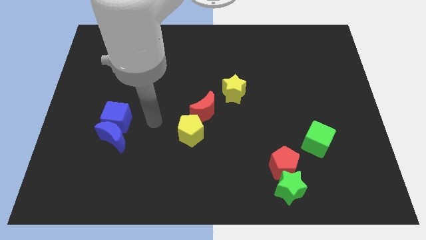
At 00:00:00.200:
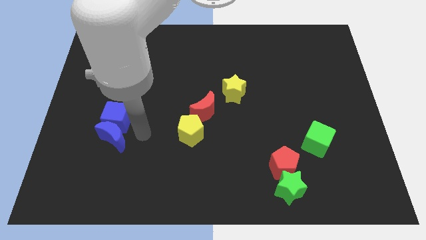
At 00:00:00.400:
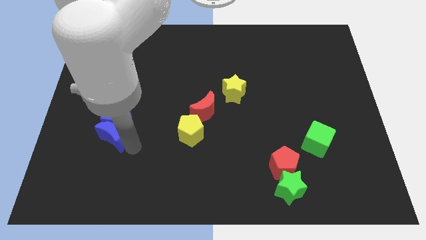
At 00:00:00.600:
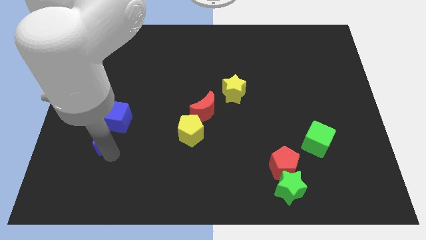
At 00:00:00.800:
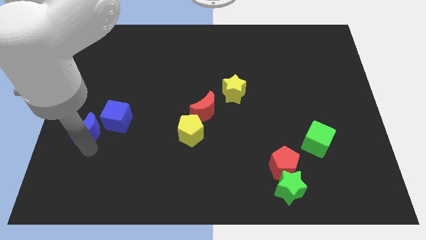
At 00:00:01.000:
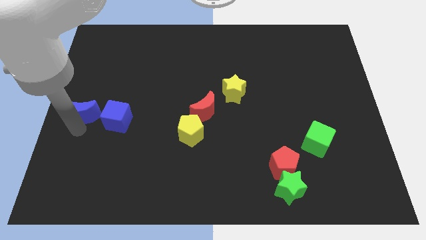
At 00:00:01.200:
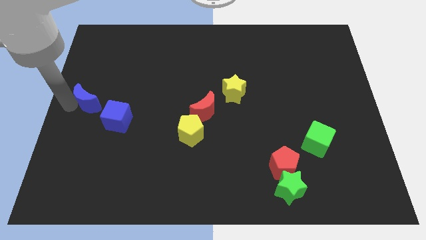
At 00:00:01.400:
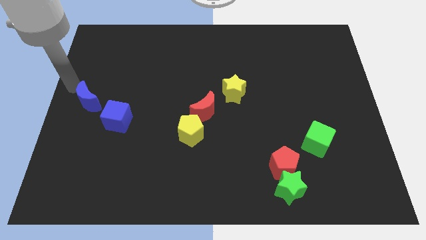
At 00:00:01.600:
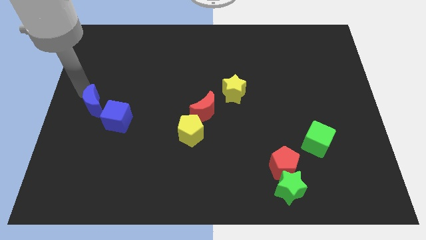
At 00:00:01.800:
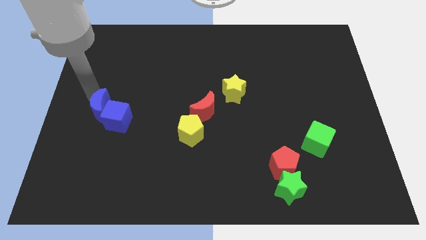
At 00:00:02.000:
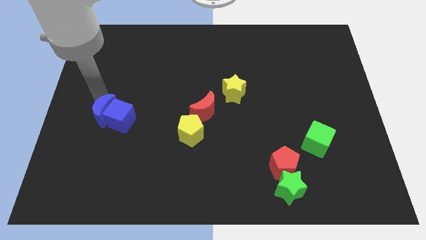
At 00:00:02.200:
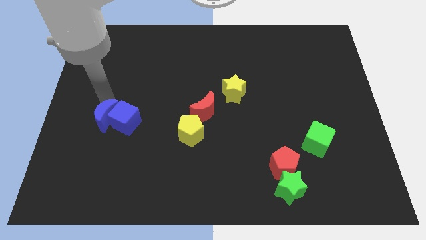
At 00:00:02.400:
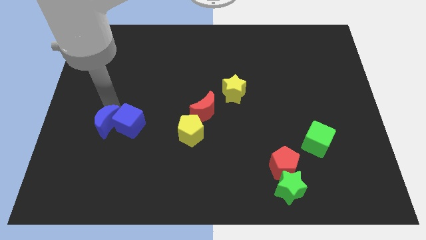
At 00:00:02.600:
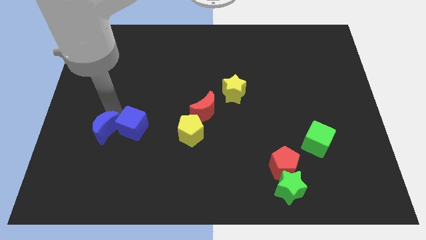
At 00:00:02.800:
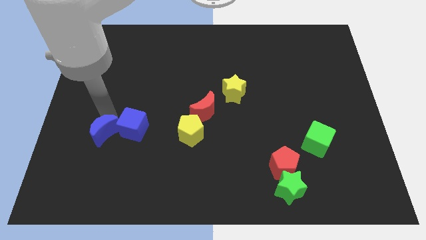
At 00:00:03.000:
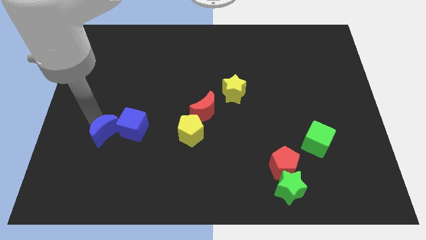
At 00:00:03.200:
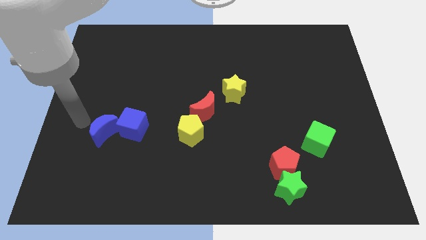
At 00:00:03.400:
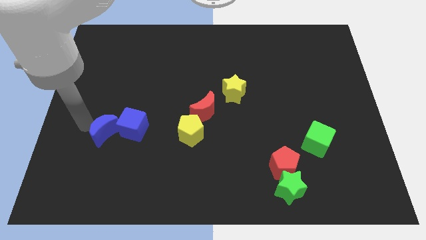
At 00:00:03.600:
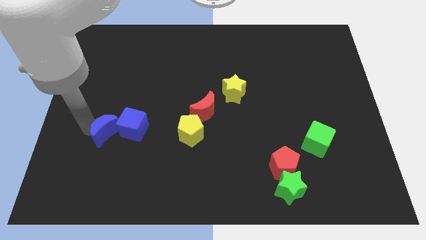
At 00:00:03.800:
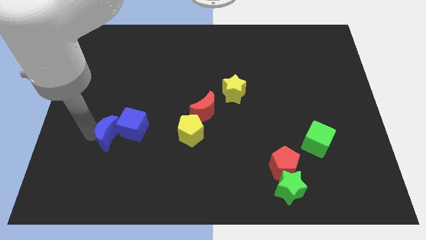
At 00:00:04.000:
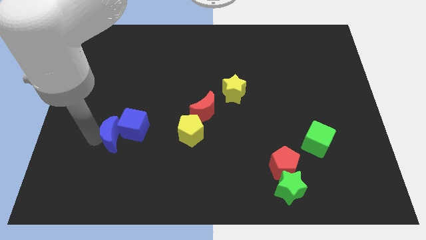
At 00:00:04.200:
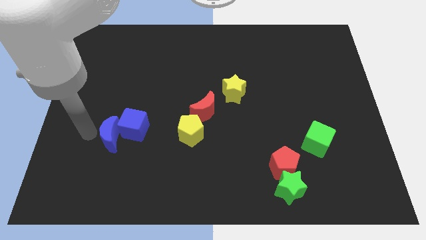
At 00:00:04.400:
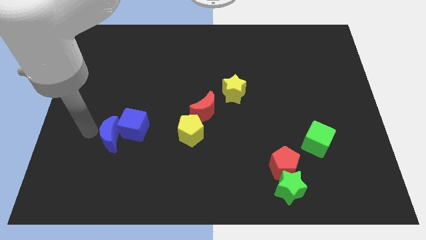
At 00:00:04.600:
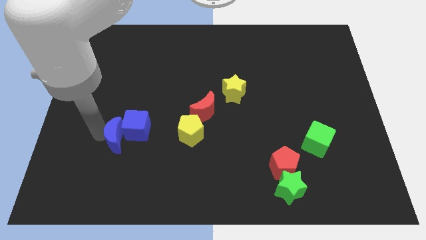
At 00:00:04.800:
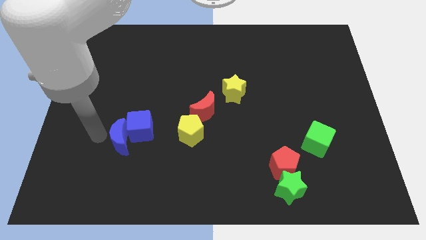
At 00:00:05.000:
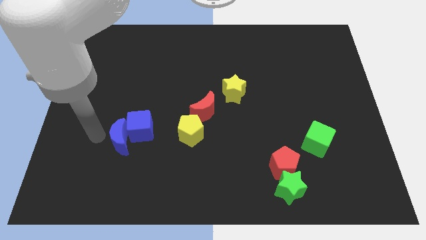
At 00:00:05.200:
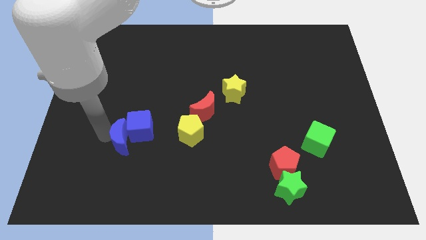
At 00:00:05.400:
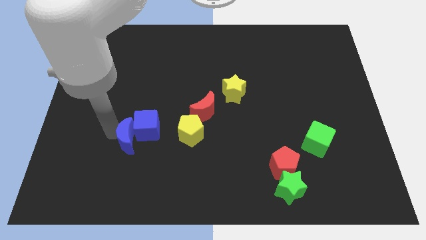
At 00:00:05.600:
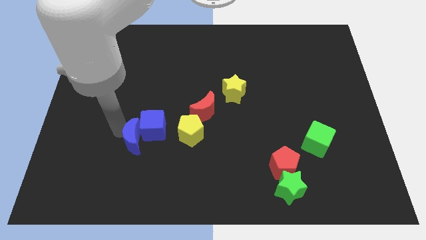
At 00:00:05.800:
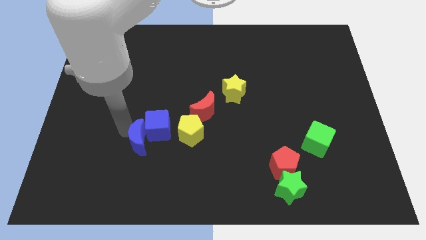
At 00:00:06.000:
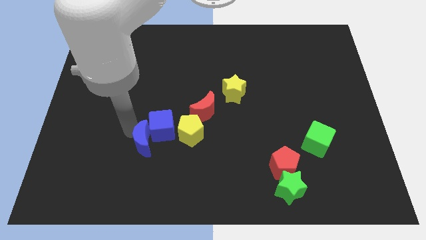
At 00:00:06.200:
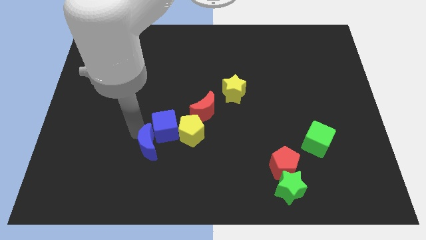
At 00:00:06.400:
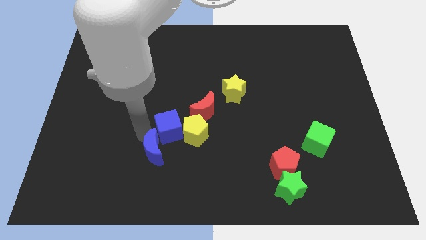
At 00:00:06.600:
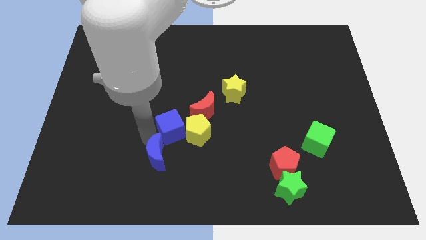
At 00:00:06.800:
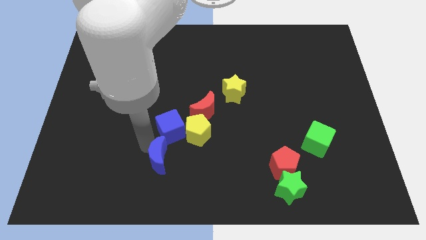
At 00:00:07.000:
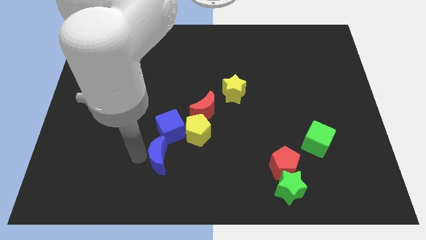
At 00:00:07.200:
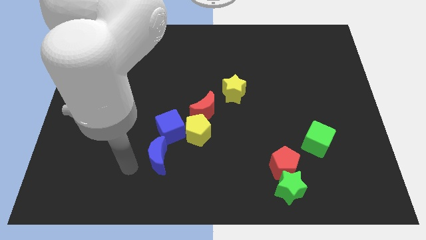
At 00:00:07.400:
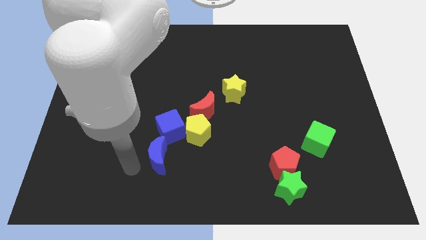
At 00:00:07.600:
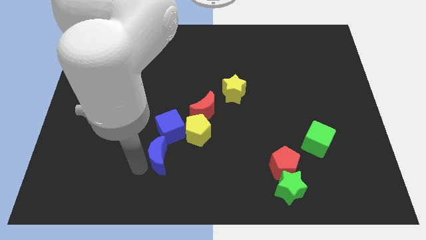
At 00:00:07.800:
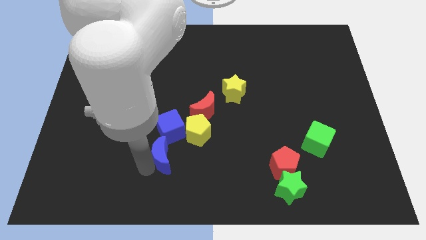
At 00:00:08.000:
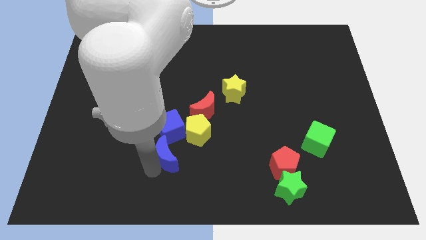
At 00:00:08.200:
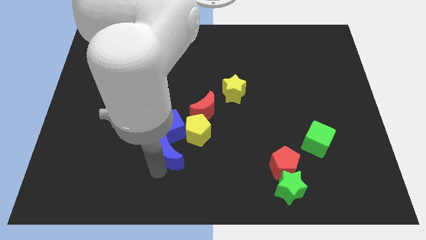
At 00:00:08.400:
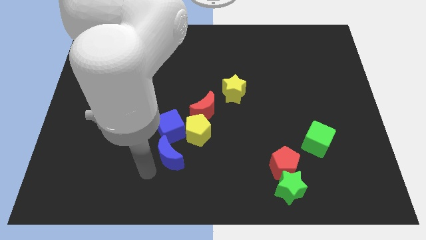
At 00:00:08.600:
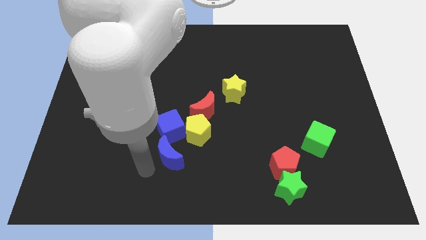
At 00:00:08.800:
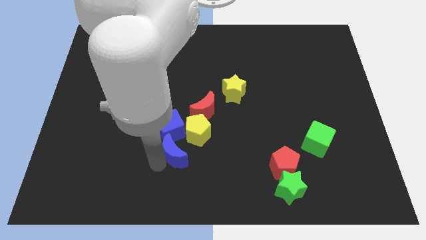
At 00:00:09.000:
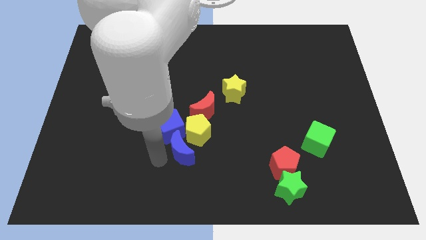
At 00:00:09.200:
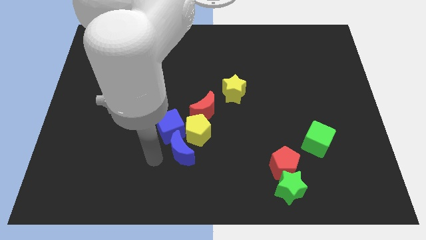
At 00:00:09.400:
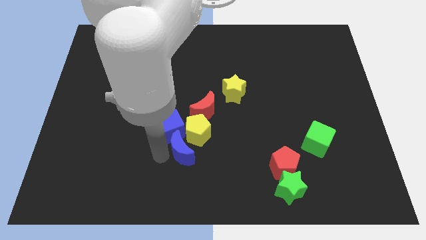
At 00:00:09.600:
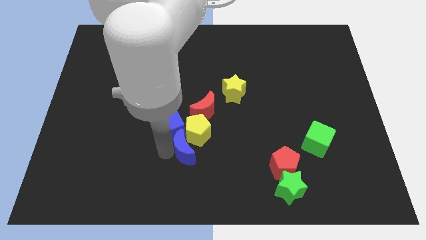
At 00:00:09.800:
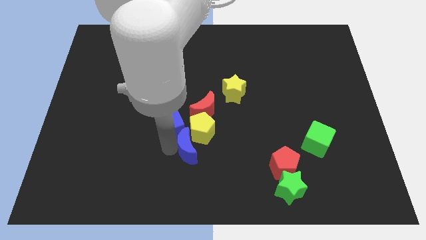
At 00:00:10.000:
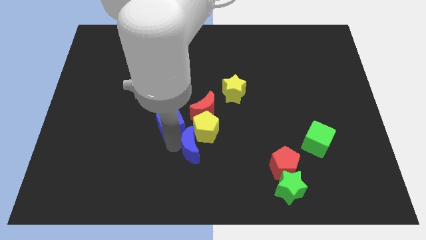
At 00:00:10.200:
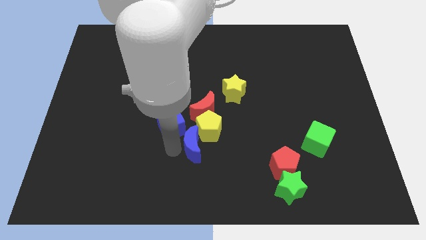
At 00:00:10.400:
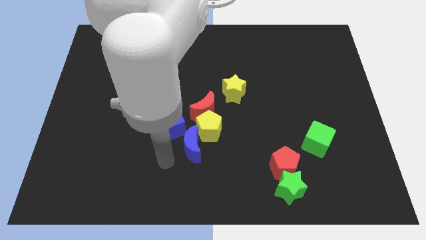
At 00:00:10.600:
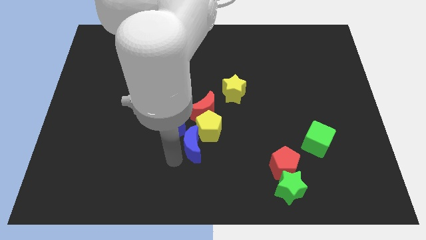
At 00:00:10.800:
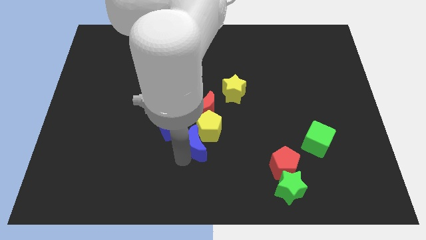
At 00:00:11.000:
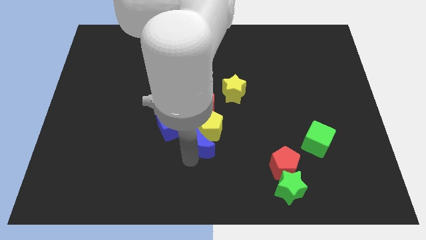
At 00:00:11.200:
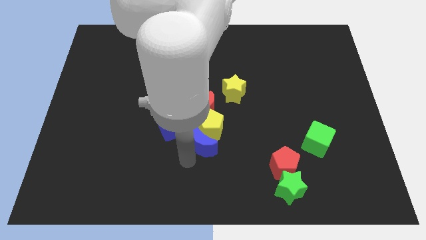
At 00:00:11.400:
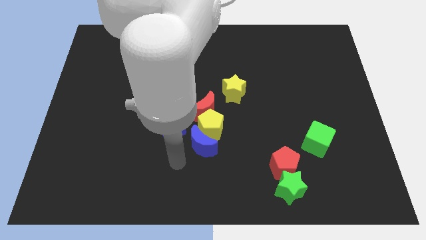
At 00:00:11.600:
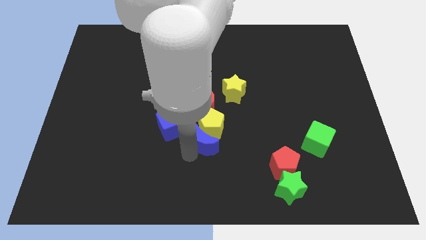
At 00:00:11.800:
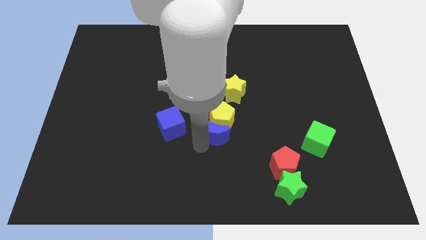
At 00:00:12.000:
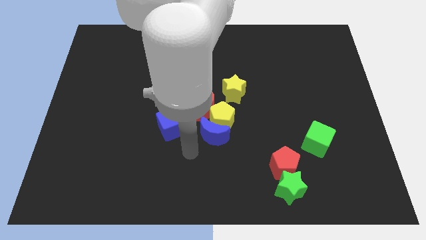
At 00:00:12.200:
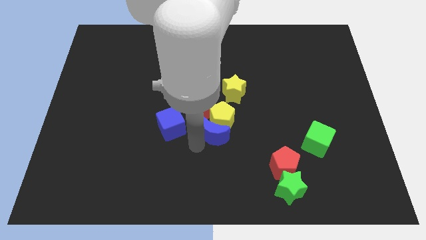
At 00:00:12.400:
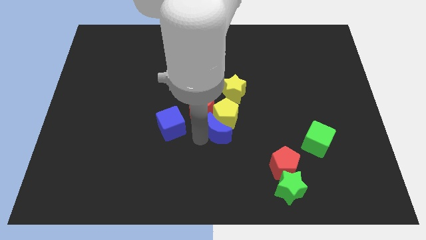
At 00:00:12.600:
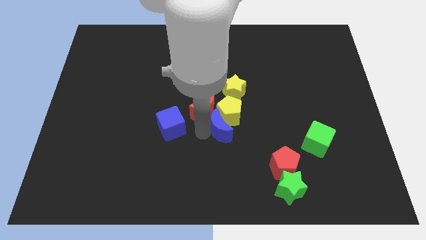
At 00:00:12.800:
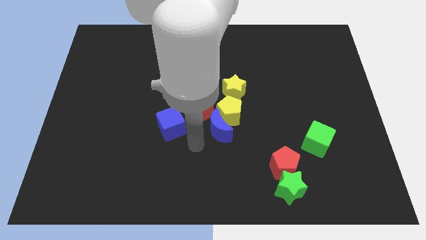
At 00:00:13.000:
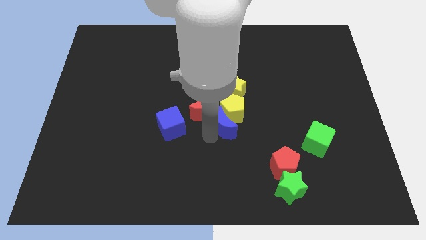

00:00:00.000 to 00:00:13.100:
slide the blue moon to the right side of the red moon

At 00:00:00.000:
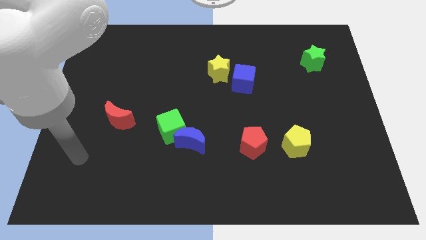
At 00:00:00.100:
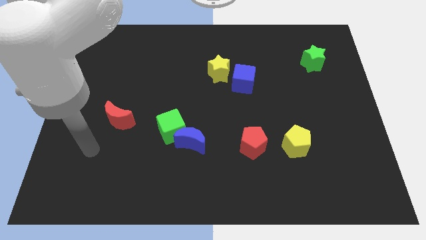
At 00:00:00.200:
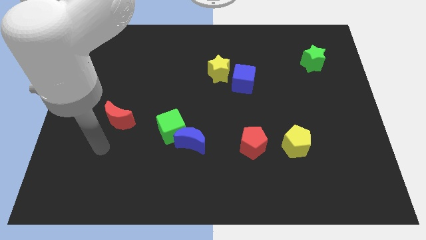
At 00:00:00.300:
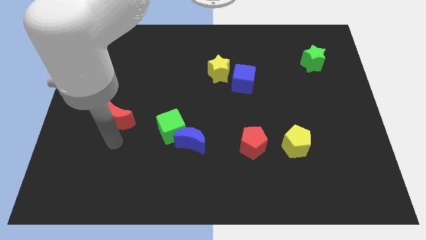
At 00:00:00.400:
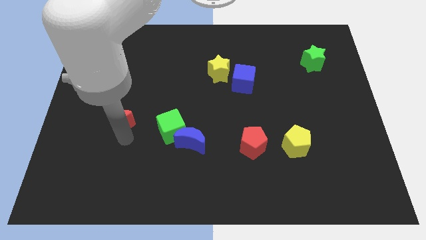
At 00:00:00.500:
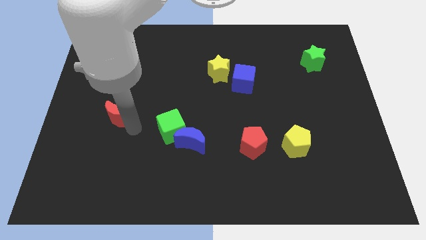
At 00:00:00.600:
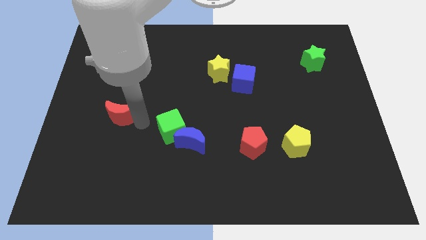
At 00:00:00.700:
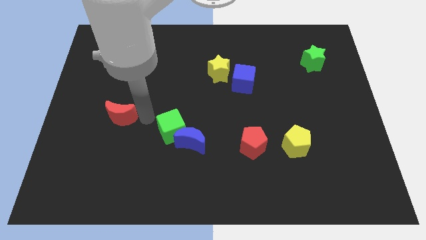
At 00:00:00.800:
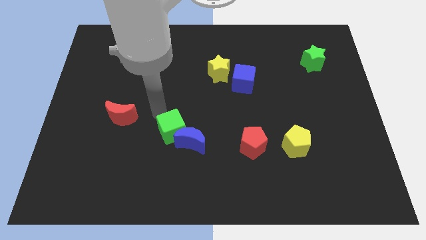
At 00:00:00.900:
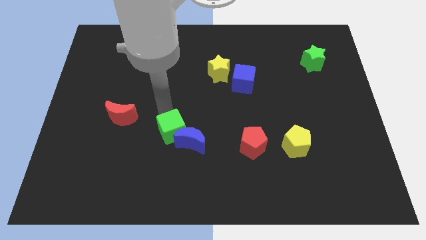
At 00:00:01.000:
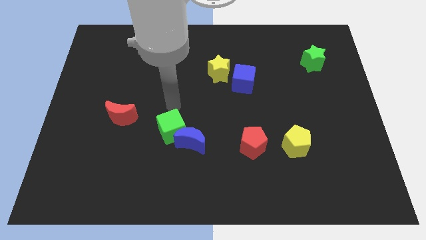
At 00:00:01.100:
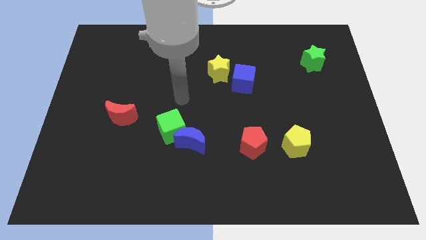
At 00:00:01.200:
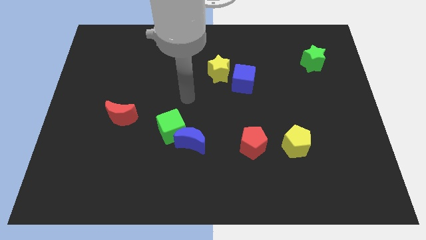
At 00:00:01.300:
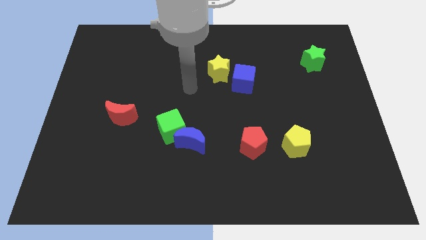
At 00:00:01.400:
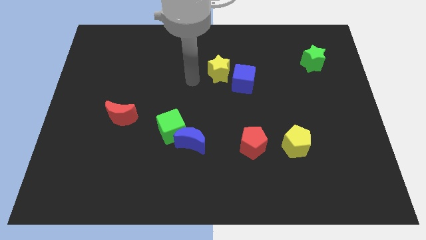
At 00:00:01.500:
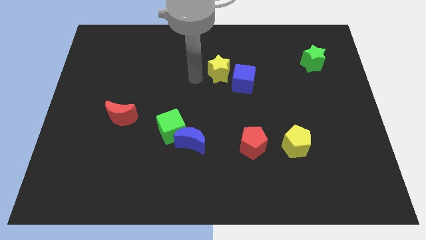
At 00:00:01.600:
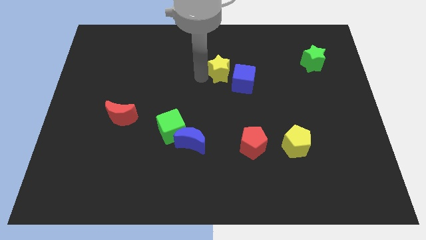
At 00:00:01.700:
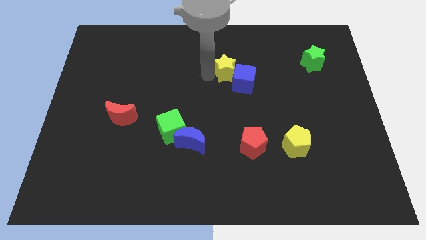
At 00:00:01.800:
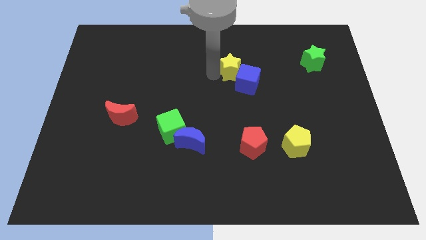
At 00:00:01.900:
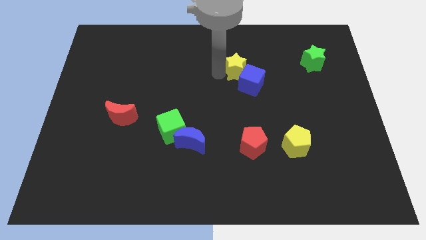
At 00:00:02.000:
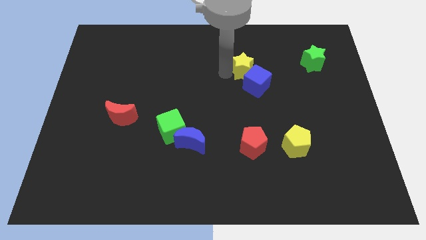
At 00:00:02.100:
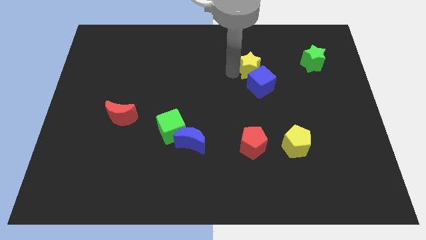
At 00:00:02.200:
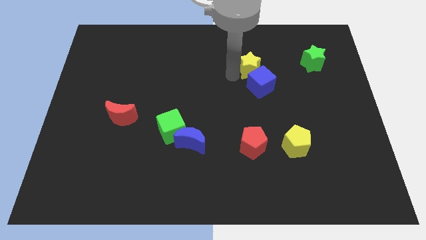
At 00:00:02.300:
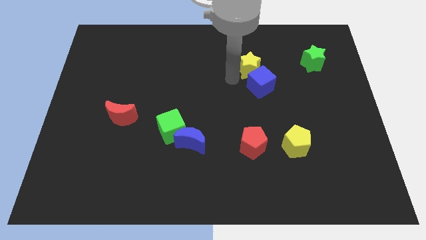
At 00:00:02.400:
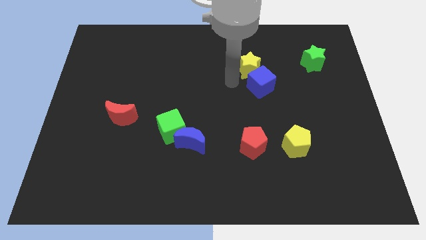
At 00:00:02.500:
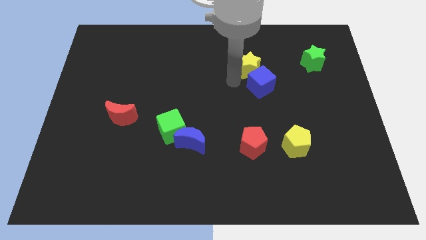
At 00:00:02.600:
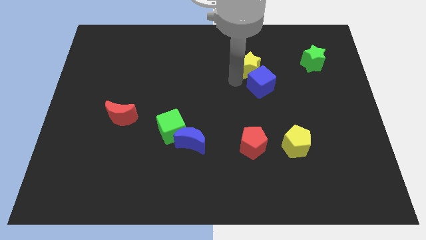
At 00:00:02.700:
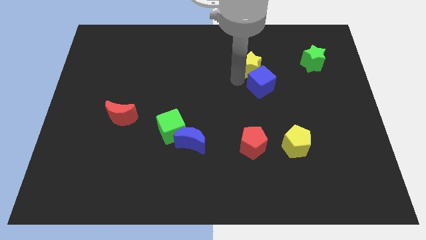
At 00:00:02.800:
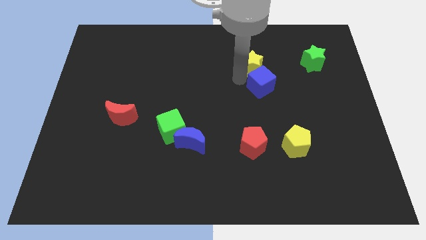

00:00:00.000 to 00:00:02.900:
put the yellow star to the left of the green star
